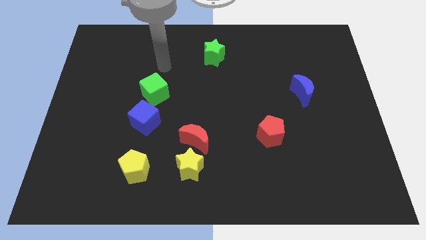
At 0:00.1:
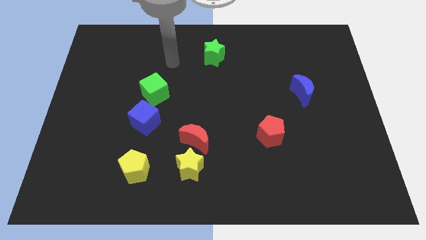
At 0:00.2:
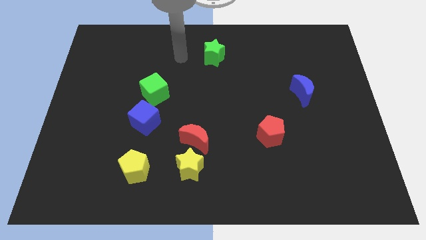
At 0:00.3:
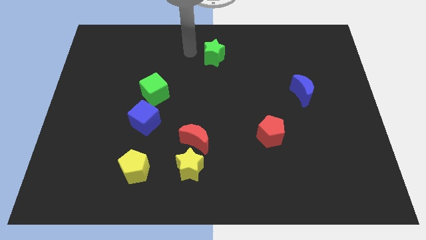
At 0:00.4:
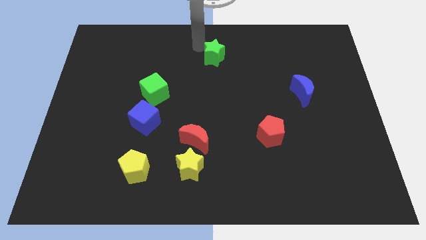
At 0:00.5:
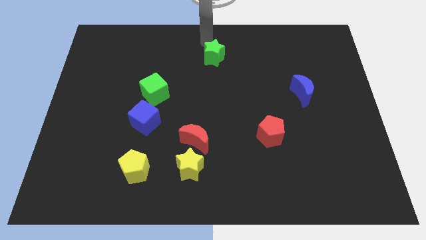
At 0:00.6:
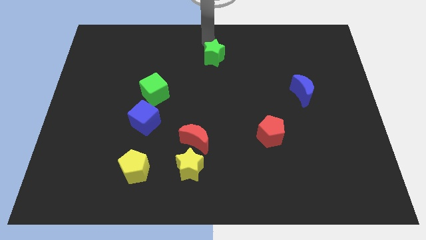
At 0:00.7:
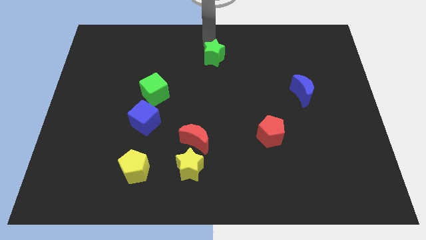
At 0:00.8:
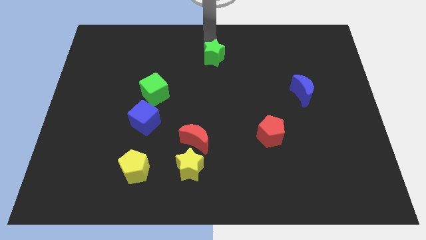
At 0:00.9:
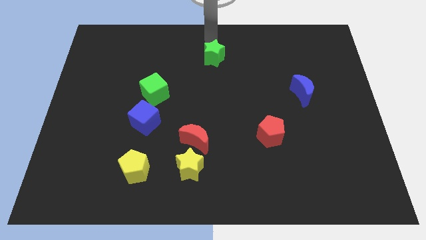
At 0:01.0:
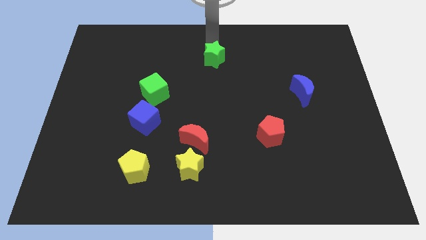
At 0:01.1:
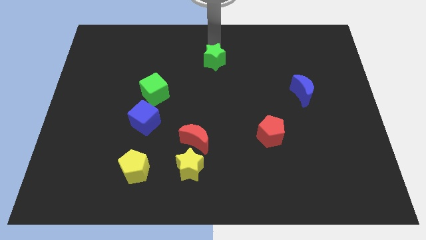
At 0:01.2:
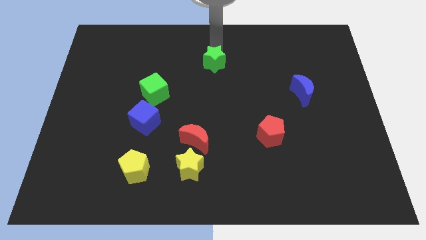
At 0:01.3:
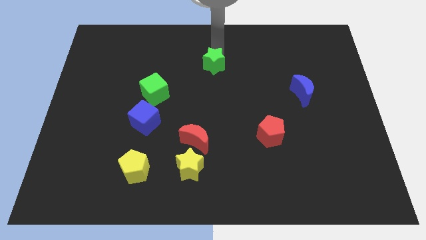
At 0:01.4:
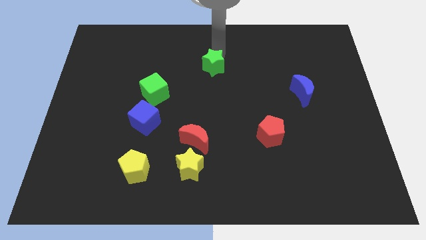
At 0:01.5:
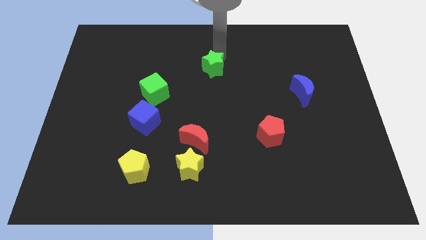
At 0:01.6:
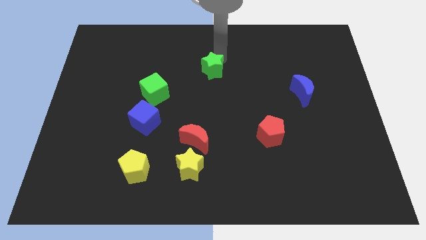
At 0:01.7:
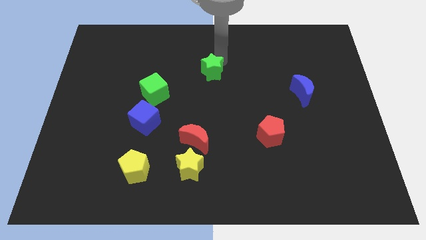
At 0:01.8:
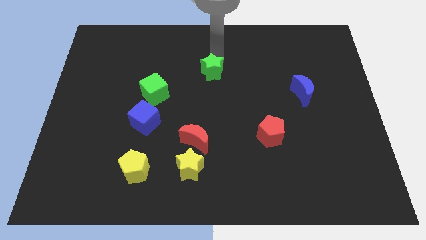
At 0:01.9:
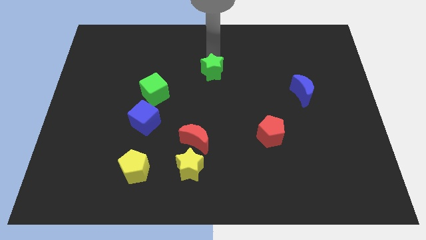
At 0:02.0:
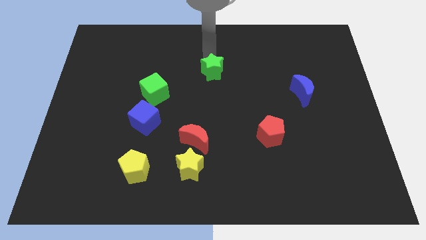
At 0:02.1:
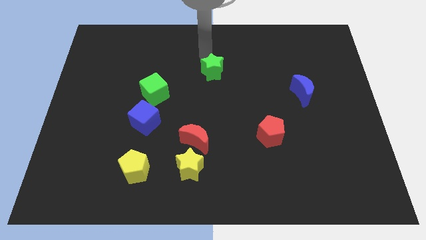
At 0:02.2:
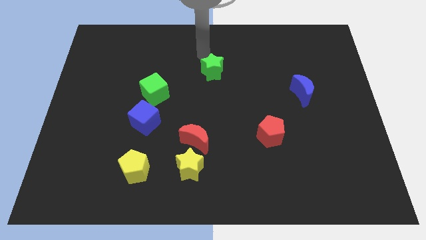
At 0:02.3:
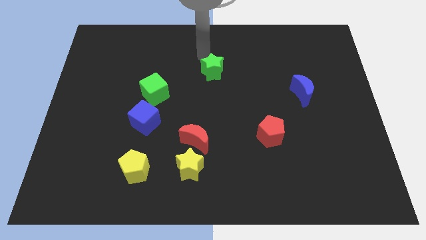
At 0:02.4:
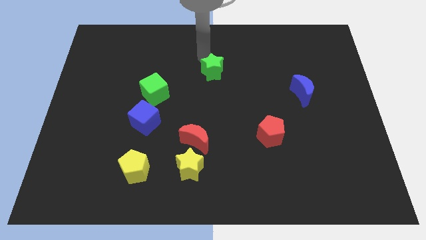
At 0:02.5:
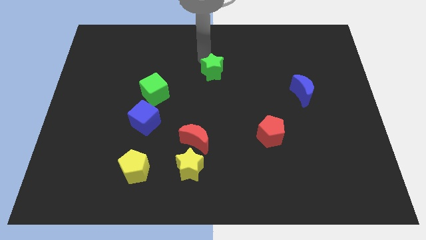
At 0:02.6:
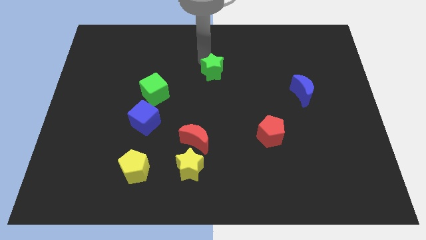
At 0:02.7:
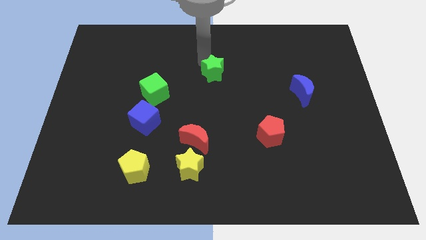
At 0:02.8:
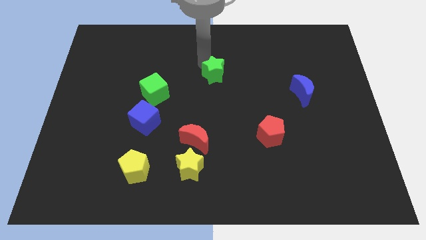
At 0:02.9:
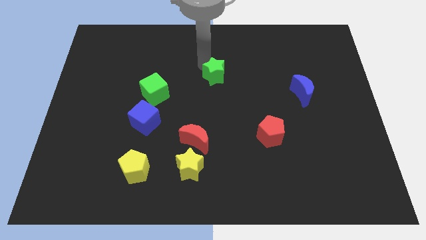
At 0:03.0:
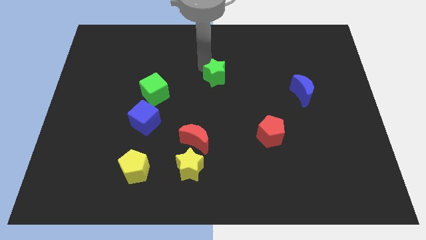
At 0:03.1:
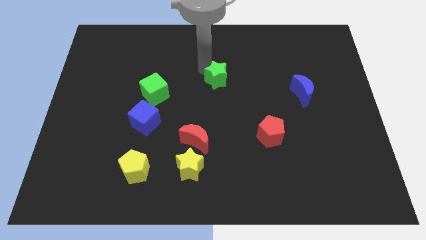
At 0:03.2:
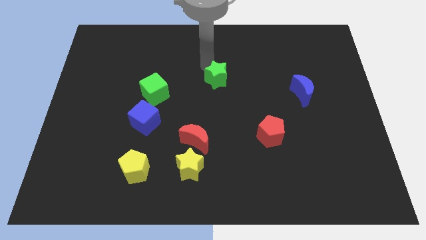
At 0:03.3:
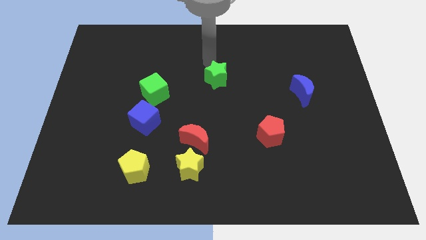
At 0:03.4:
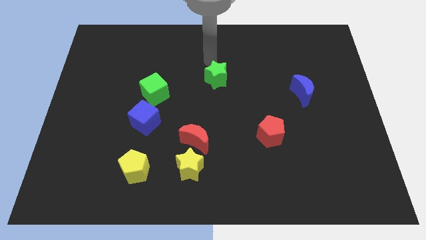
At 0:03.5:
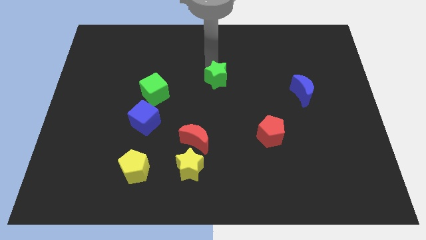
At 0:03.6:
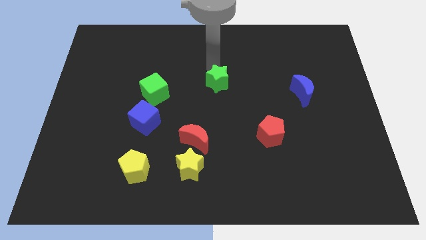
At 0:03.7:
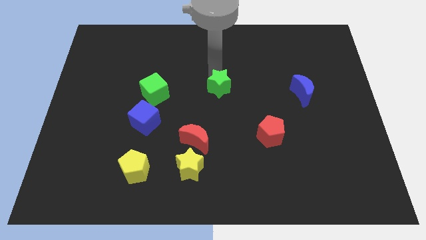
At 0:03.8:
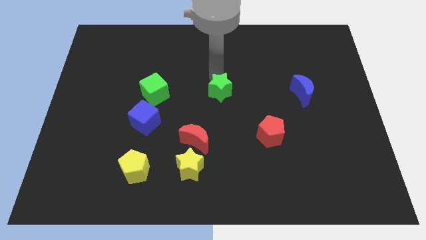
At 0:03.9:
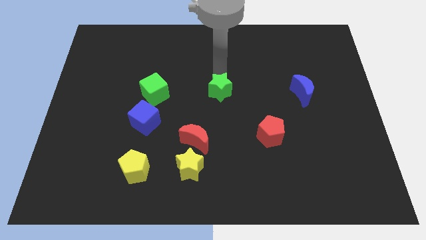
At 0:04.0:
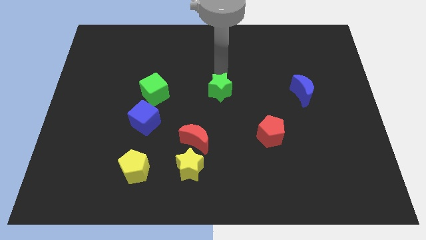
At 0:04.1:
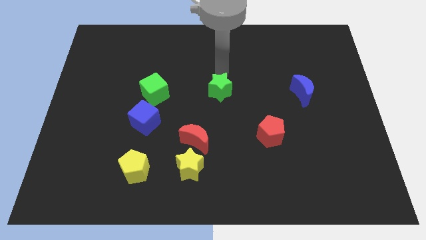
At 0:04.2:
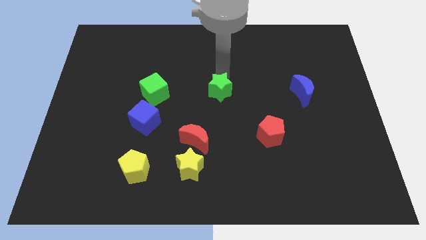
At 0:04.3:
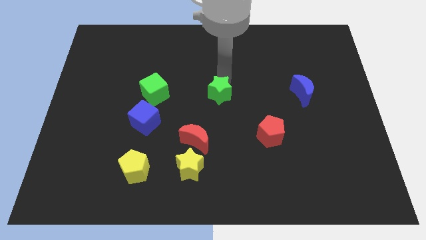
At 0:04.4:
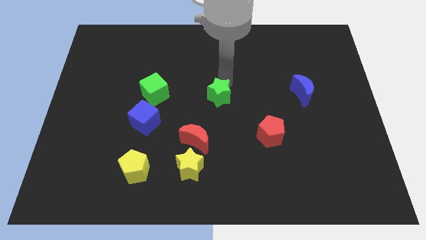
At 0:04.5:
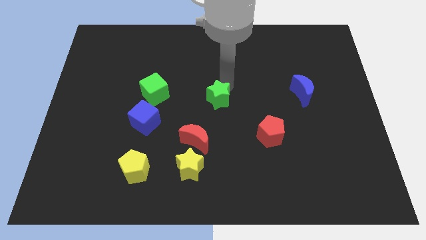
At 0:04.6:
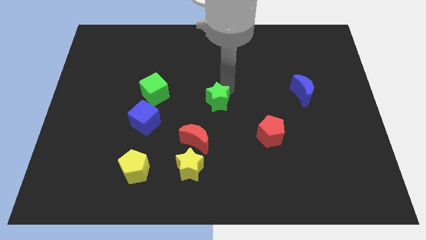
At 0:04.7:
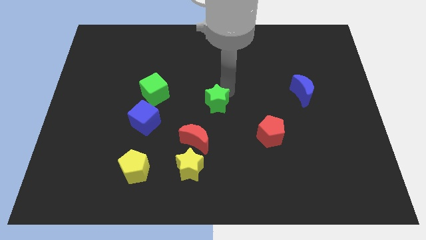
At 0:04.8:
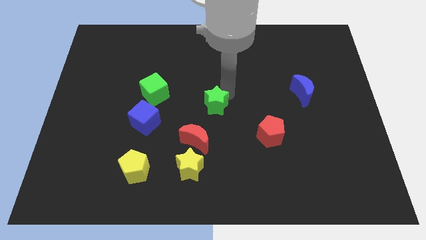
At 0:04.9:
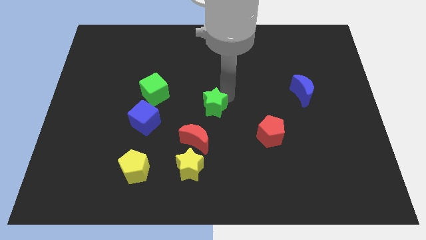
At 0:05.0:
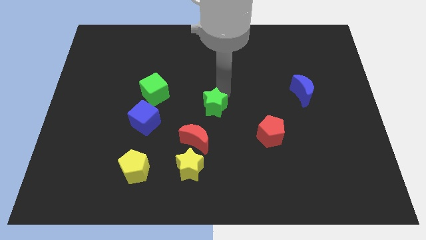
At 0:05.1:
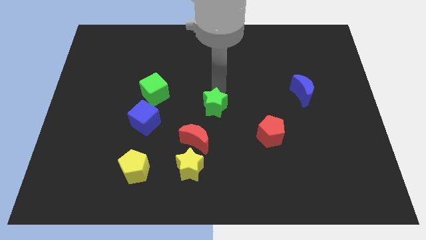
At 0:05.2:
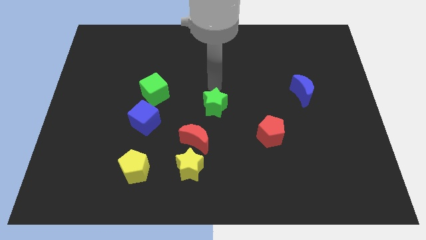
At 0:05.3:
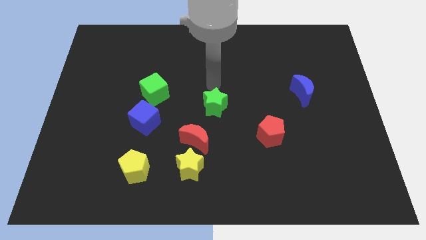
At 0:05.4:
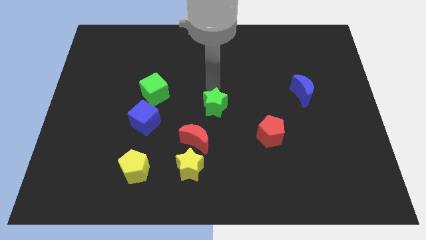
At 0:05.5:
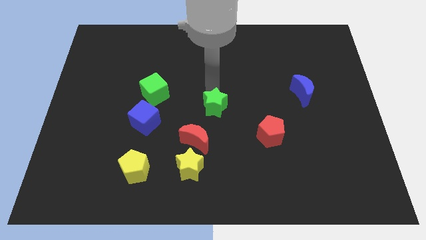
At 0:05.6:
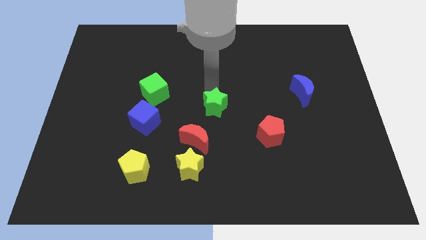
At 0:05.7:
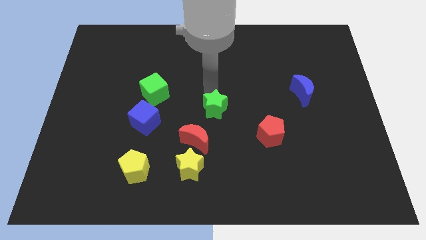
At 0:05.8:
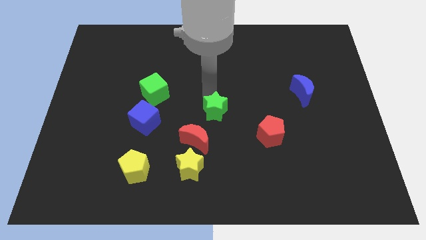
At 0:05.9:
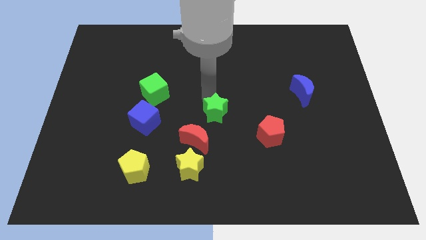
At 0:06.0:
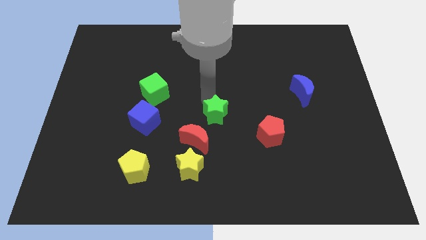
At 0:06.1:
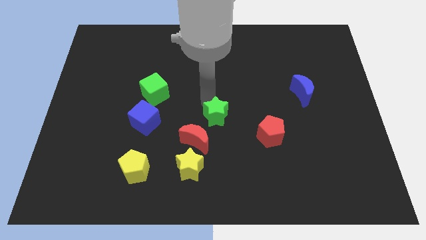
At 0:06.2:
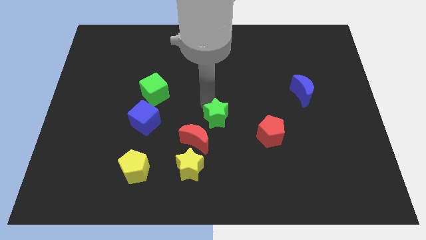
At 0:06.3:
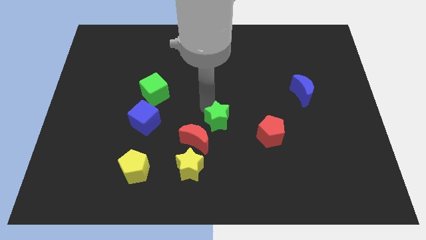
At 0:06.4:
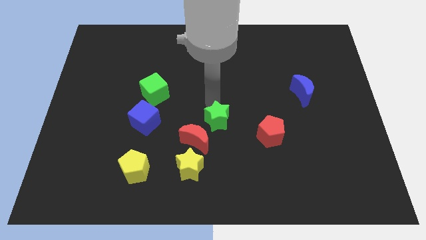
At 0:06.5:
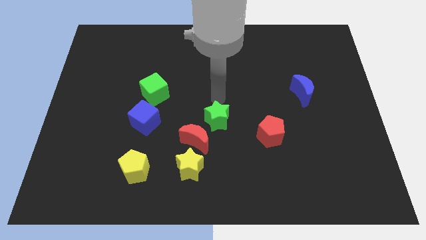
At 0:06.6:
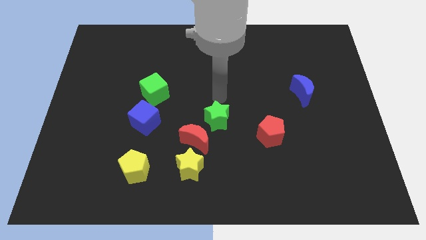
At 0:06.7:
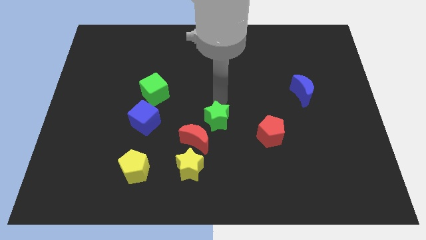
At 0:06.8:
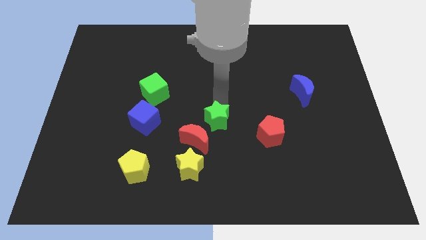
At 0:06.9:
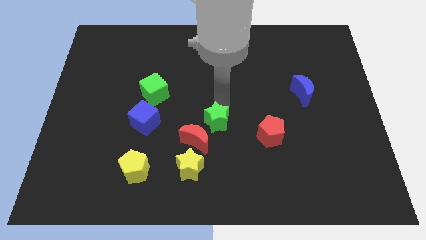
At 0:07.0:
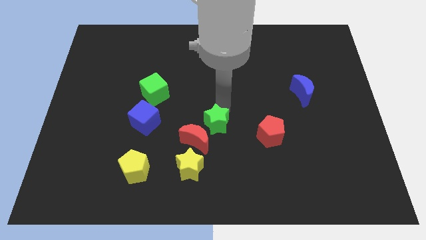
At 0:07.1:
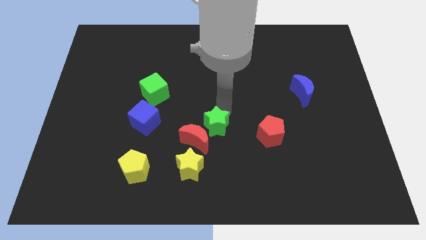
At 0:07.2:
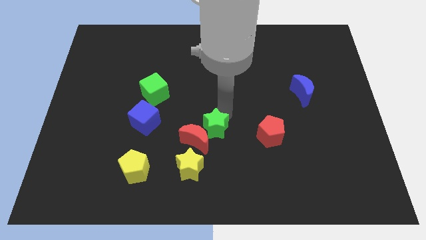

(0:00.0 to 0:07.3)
push the green star to the top right side of the yellow star

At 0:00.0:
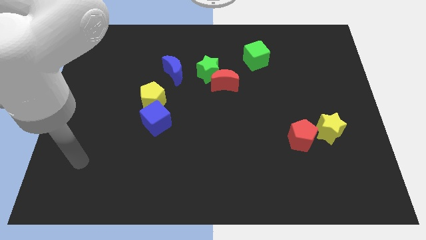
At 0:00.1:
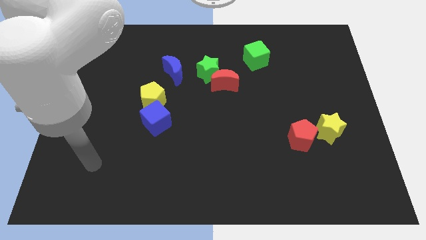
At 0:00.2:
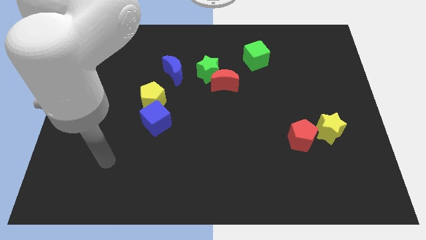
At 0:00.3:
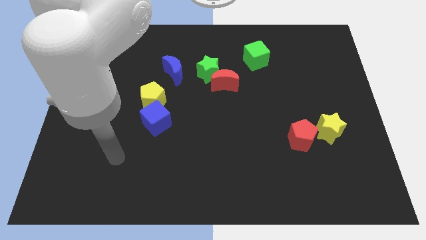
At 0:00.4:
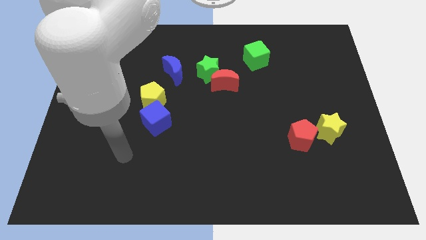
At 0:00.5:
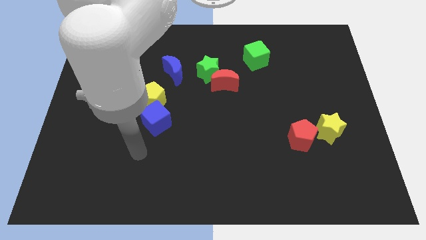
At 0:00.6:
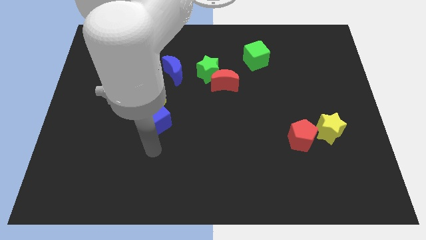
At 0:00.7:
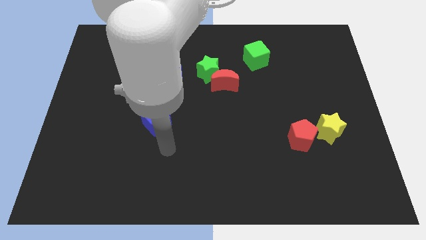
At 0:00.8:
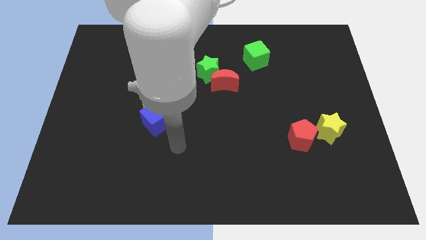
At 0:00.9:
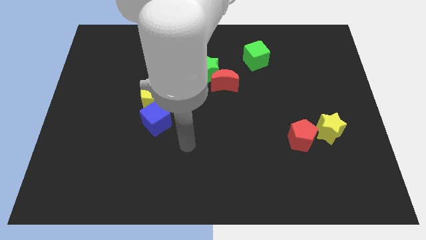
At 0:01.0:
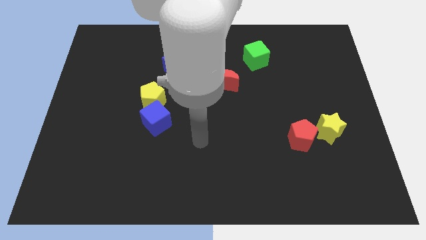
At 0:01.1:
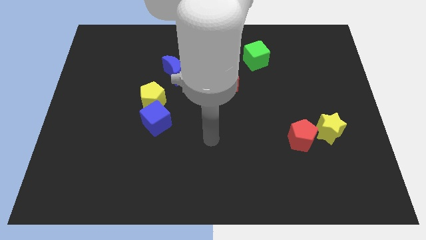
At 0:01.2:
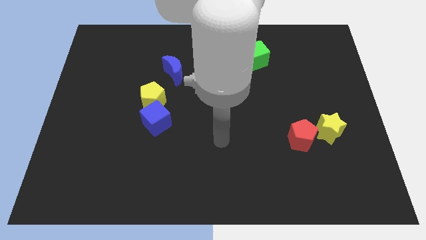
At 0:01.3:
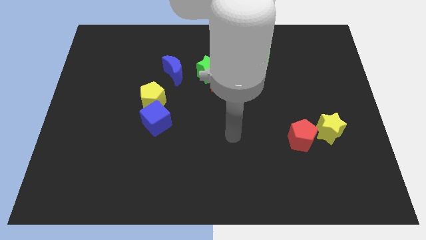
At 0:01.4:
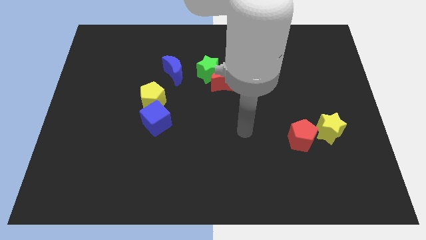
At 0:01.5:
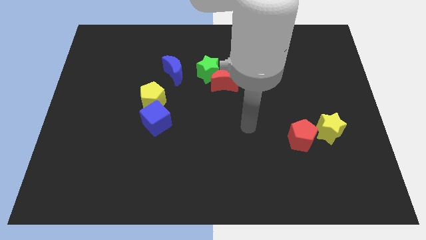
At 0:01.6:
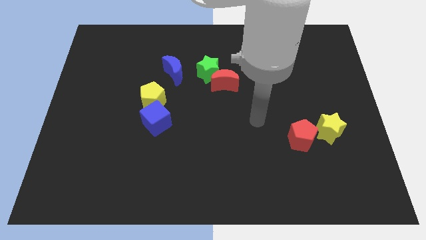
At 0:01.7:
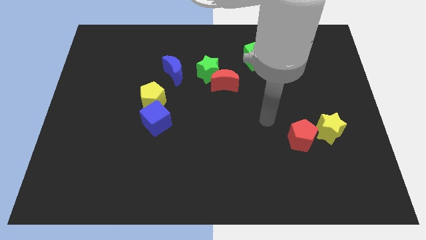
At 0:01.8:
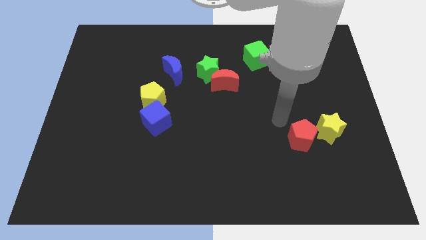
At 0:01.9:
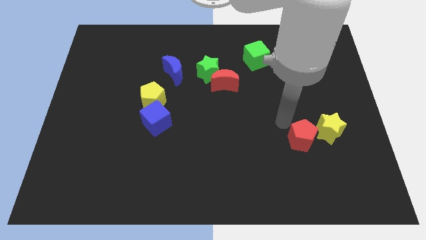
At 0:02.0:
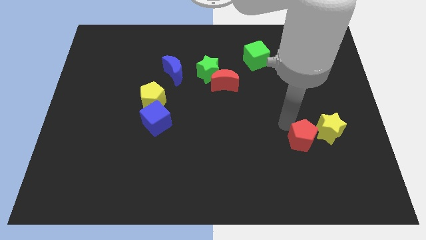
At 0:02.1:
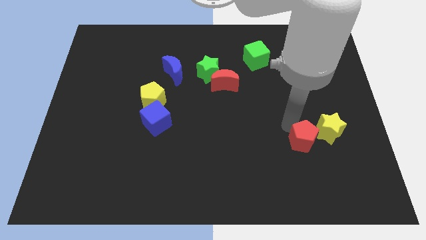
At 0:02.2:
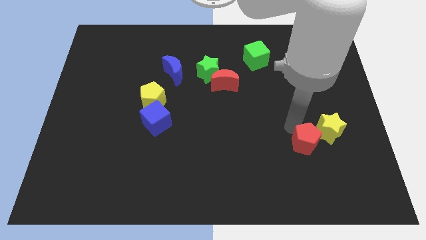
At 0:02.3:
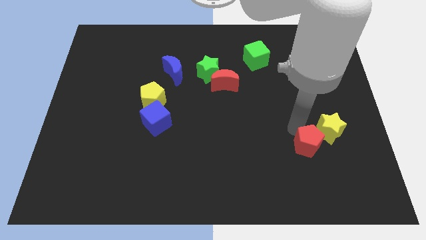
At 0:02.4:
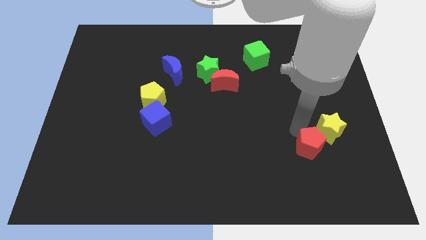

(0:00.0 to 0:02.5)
put the red pentagon below the yellow star
